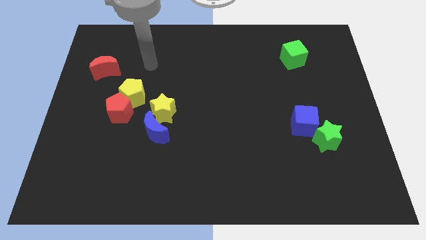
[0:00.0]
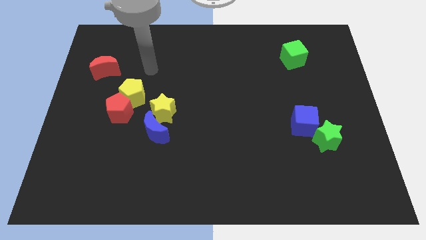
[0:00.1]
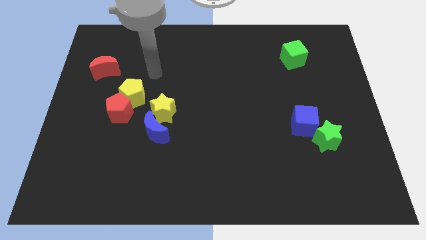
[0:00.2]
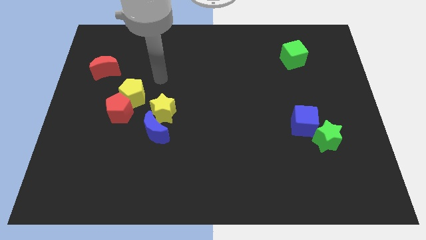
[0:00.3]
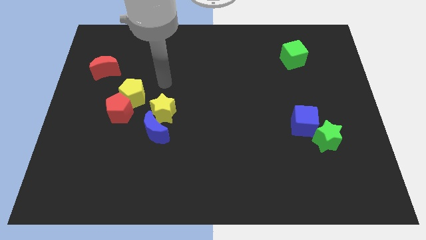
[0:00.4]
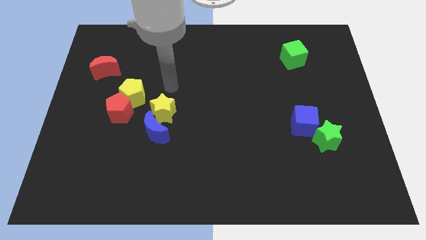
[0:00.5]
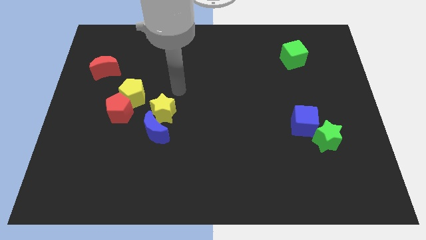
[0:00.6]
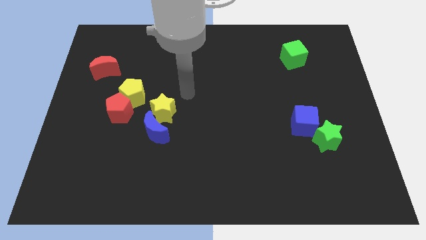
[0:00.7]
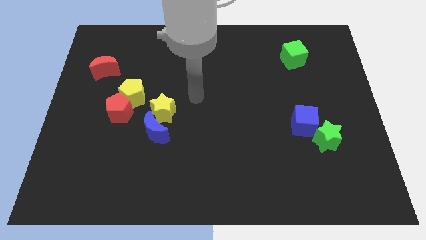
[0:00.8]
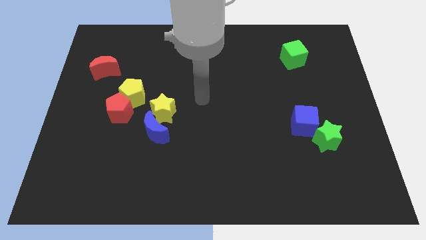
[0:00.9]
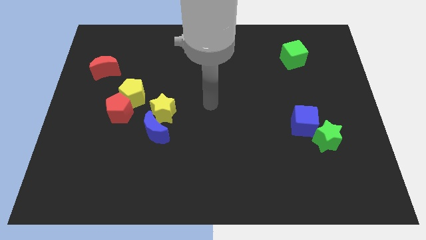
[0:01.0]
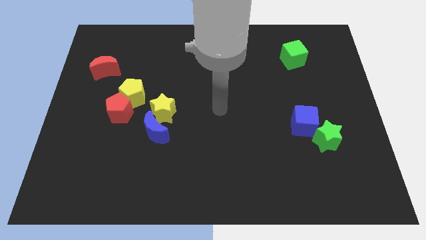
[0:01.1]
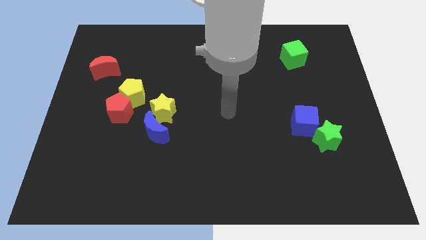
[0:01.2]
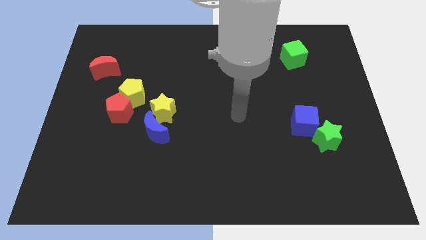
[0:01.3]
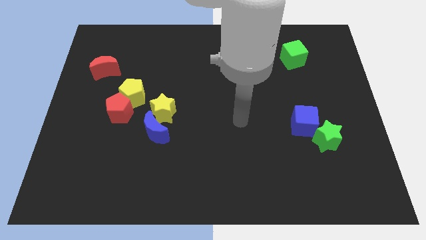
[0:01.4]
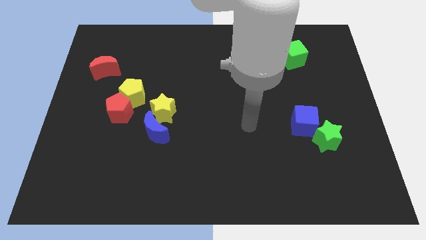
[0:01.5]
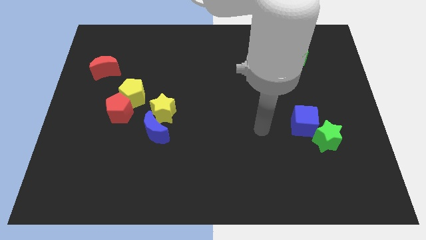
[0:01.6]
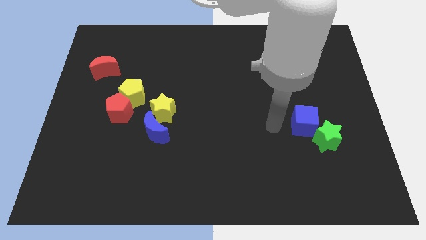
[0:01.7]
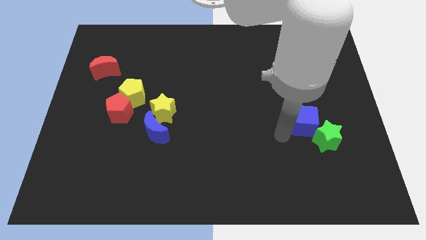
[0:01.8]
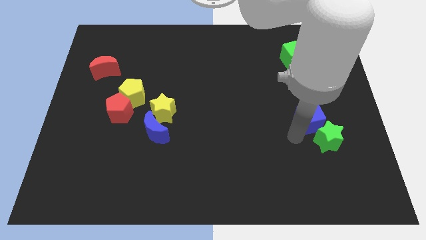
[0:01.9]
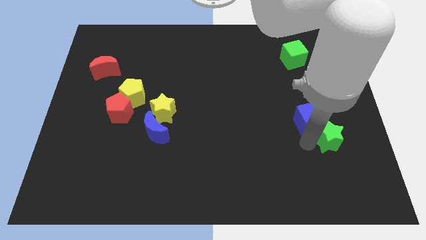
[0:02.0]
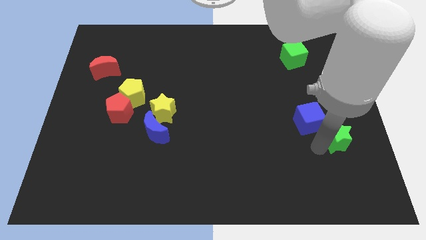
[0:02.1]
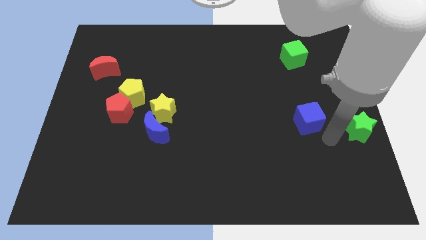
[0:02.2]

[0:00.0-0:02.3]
pull the blue cube apart from the green star

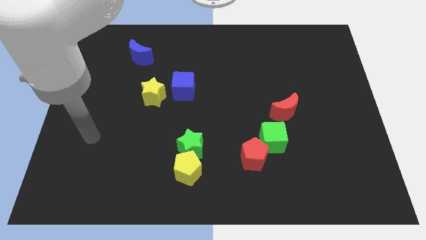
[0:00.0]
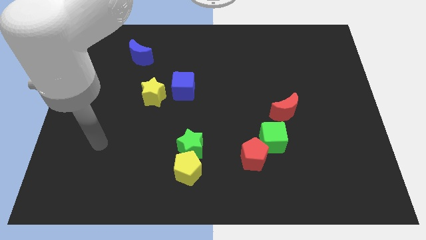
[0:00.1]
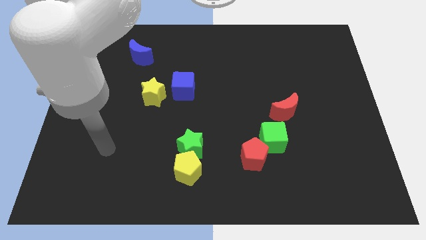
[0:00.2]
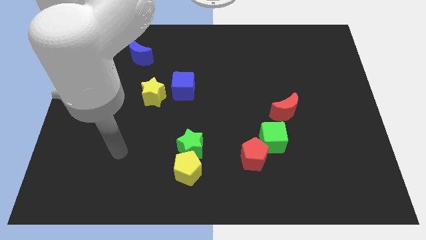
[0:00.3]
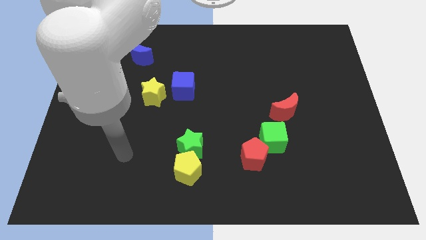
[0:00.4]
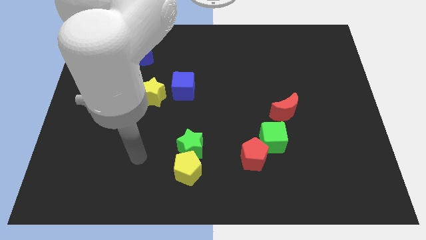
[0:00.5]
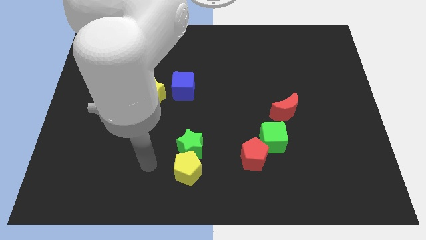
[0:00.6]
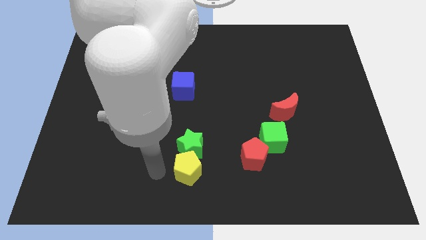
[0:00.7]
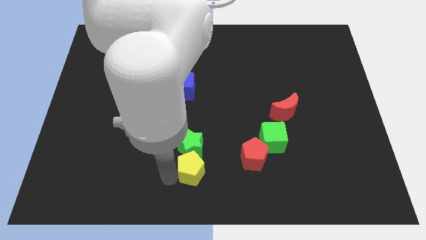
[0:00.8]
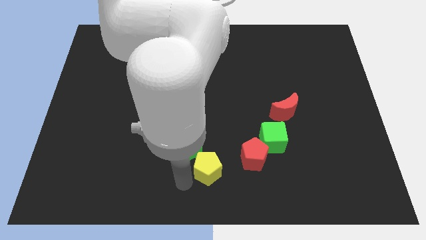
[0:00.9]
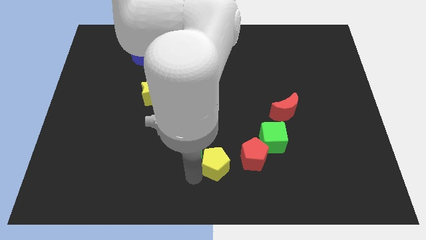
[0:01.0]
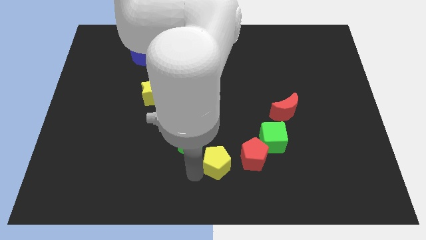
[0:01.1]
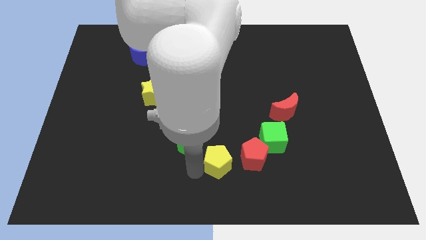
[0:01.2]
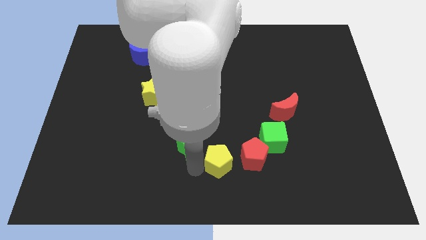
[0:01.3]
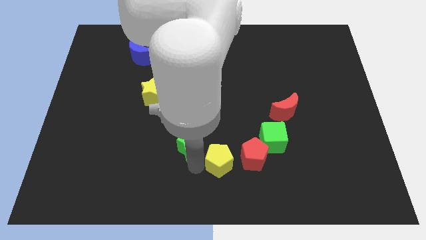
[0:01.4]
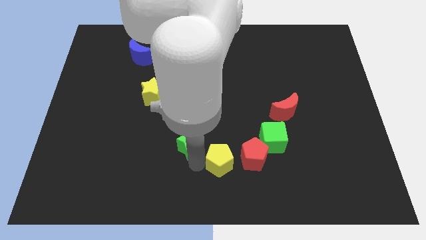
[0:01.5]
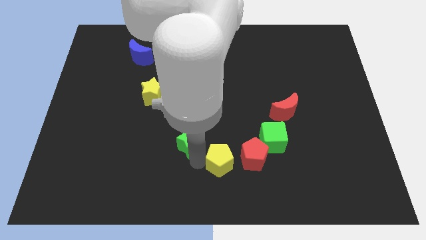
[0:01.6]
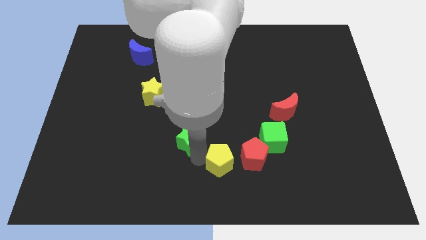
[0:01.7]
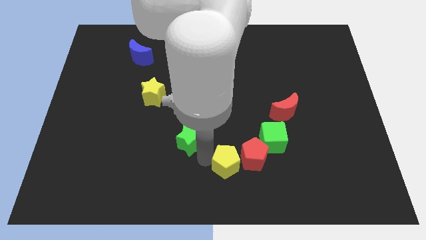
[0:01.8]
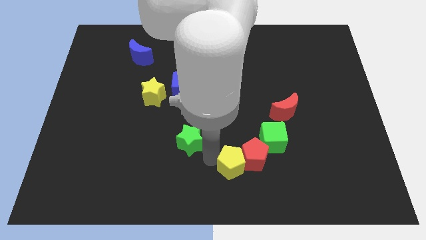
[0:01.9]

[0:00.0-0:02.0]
pull the green star apart from the yellow pentagon

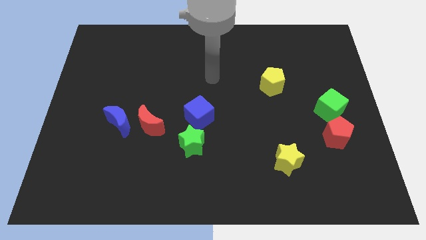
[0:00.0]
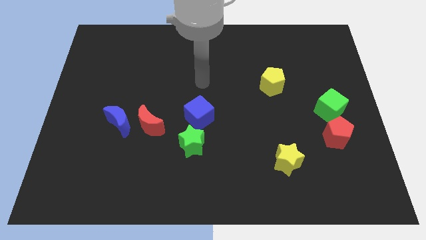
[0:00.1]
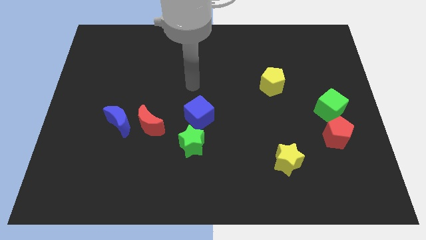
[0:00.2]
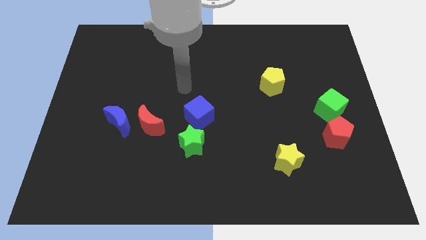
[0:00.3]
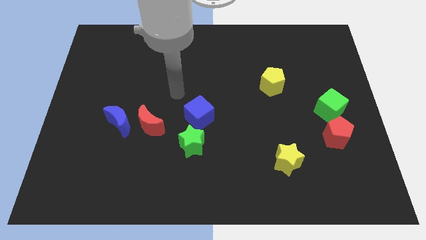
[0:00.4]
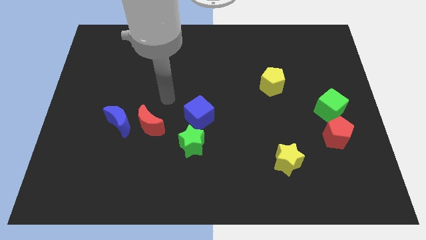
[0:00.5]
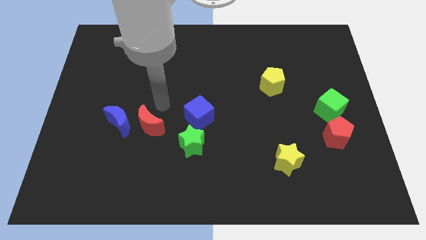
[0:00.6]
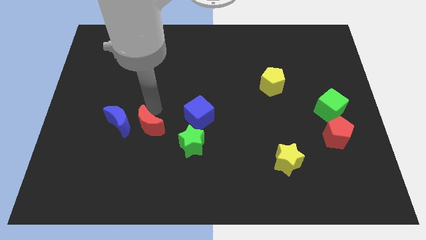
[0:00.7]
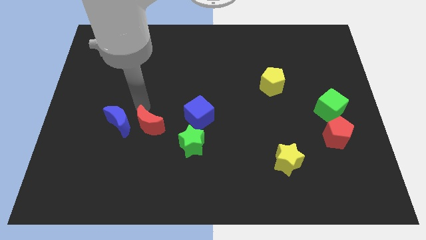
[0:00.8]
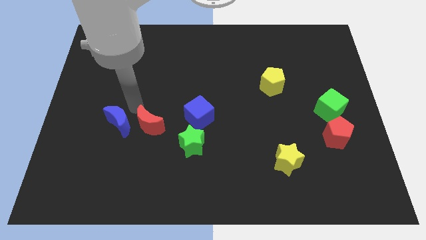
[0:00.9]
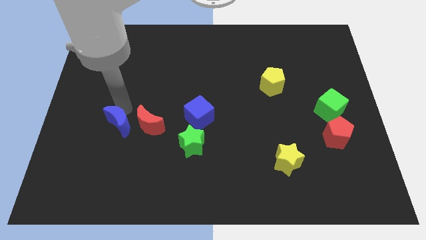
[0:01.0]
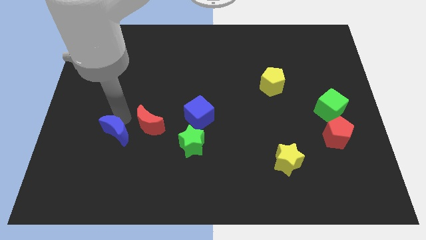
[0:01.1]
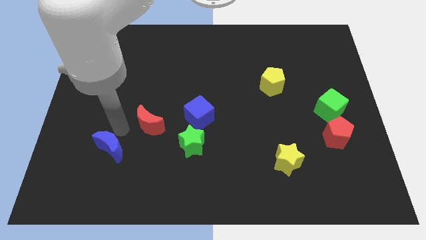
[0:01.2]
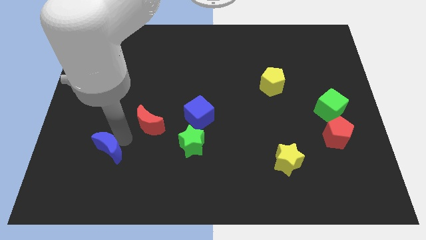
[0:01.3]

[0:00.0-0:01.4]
separate the red moon from the blue moon

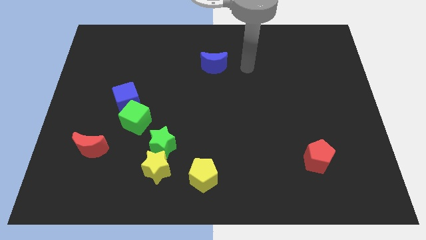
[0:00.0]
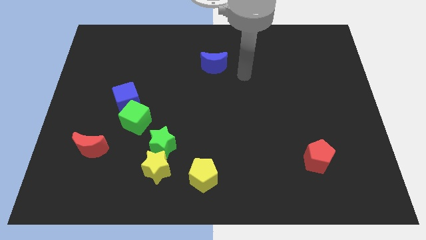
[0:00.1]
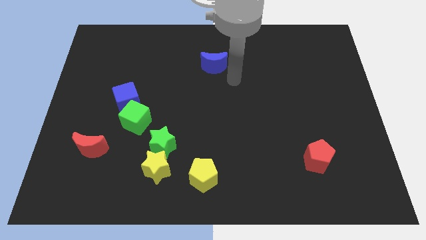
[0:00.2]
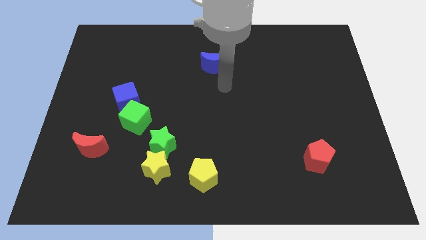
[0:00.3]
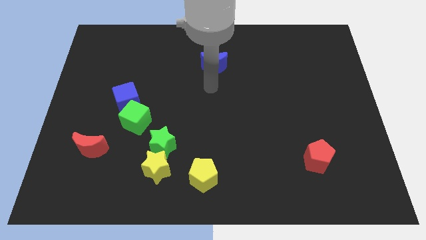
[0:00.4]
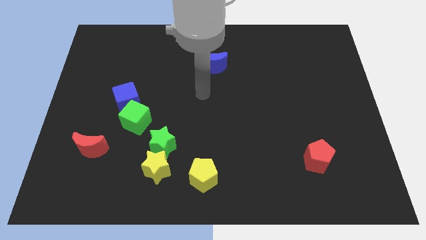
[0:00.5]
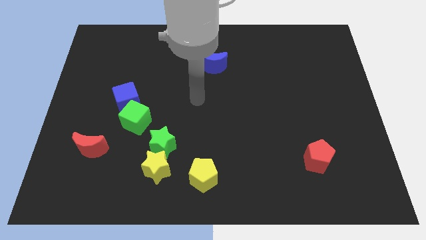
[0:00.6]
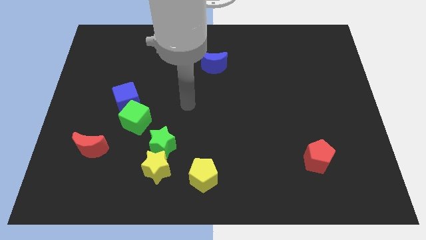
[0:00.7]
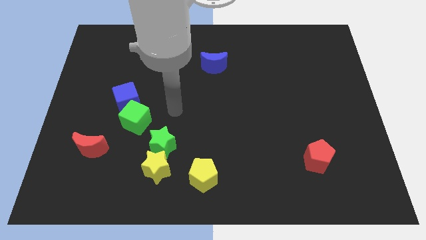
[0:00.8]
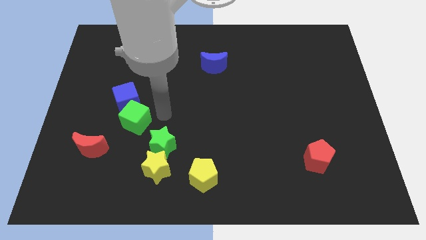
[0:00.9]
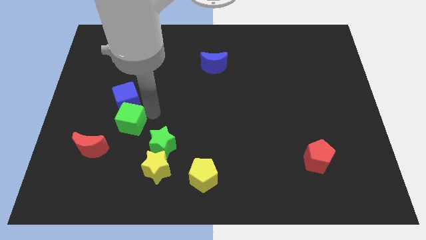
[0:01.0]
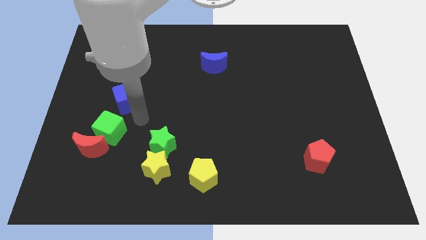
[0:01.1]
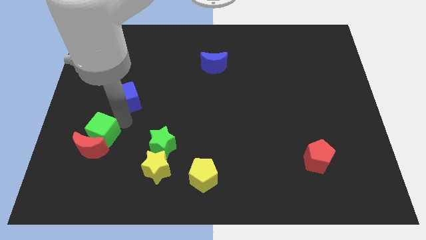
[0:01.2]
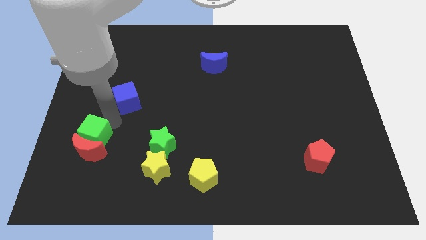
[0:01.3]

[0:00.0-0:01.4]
pull the blue cube apart from the green cube

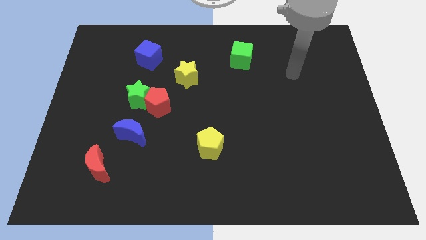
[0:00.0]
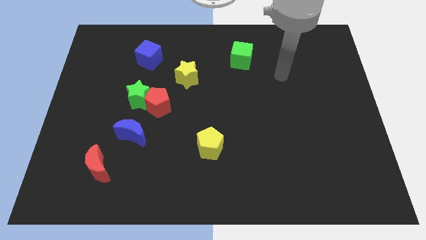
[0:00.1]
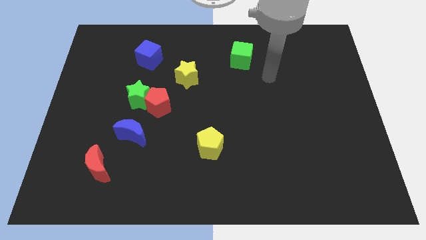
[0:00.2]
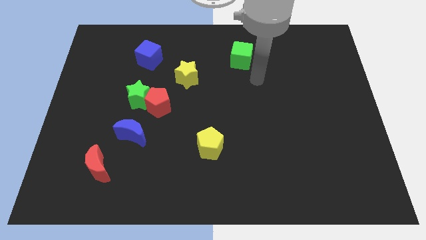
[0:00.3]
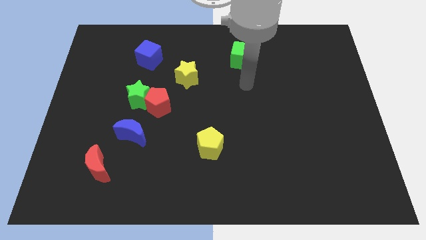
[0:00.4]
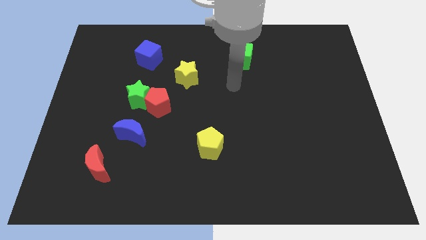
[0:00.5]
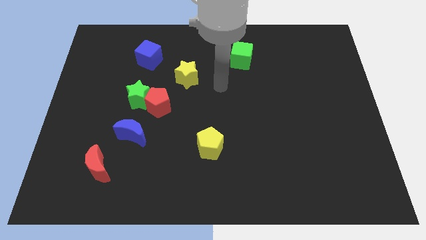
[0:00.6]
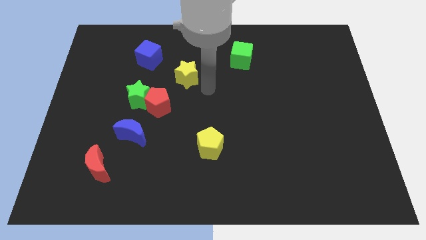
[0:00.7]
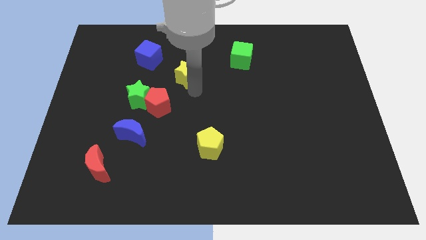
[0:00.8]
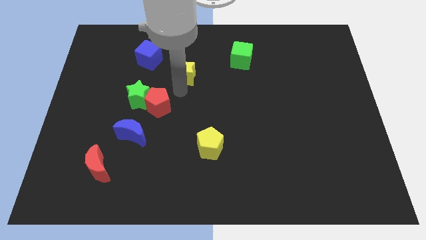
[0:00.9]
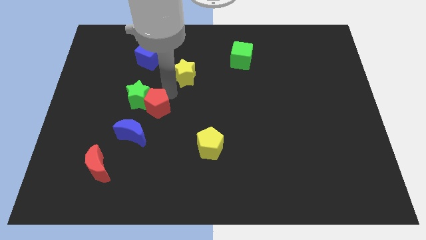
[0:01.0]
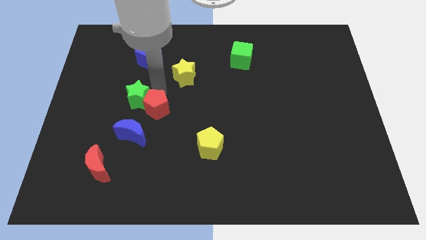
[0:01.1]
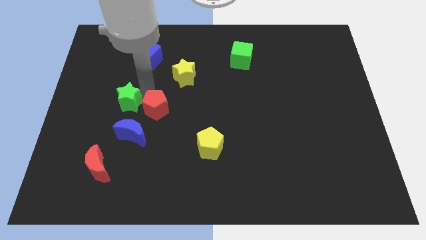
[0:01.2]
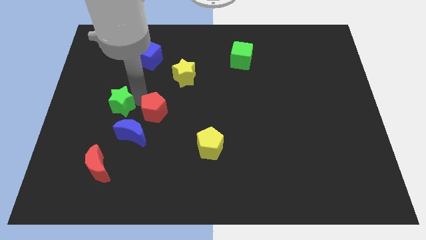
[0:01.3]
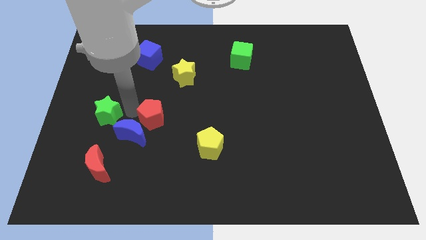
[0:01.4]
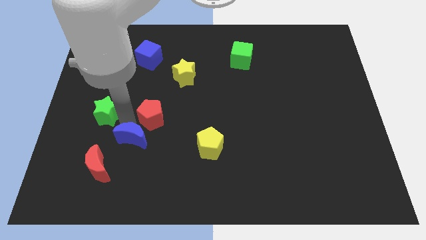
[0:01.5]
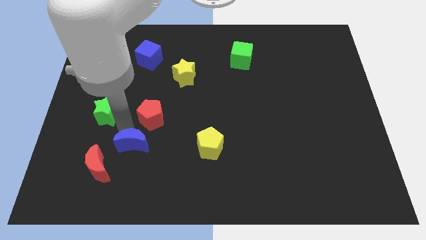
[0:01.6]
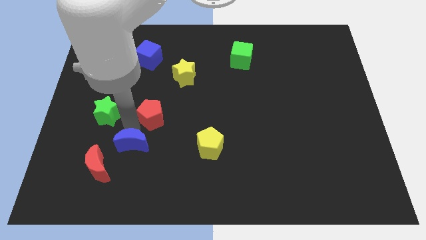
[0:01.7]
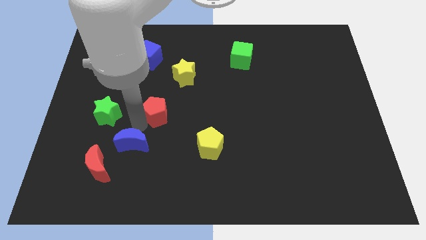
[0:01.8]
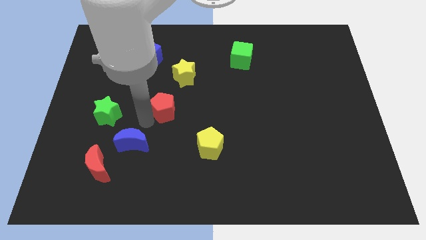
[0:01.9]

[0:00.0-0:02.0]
move the red pentagon away from the green star and blue moon

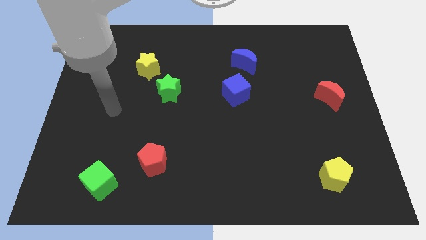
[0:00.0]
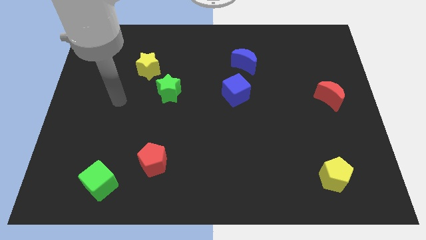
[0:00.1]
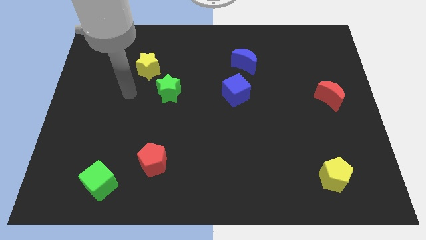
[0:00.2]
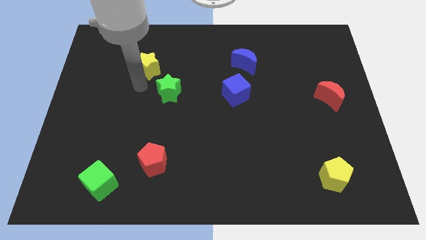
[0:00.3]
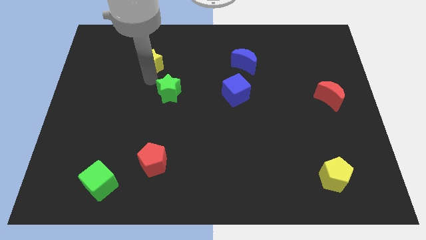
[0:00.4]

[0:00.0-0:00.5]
pull the green star apart from the yellow star
